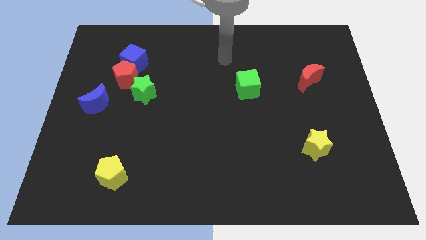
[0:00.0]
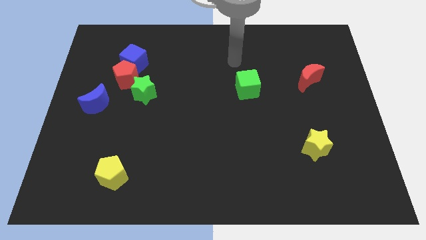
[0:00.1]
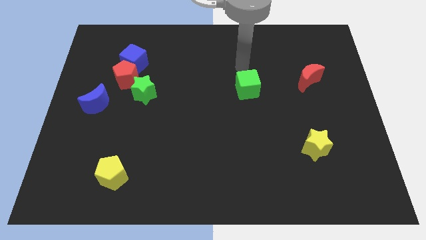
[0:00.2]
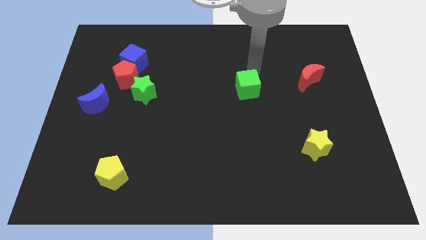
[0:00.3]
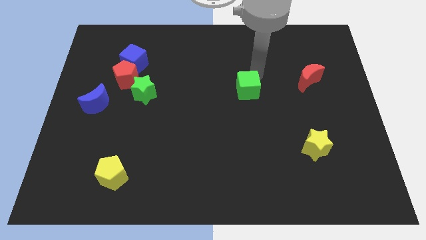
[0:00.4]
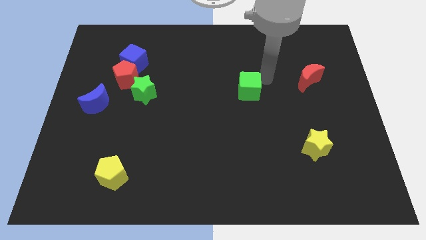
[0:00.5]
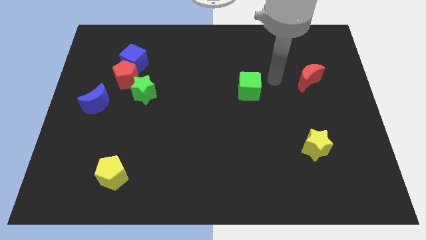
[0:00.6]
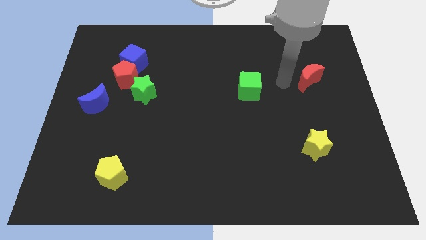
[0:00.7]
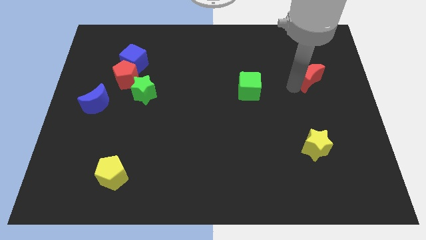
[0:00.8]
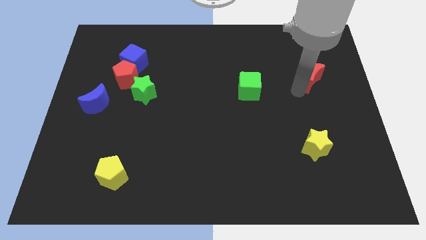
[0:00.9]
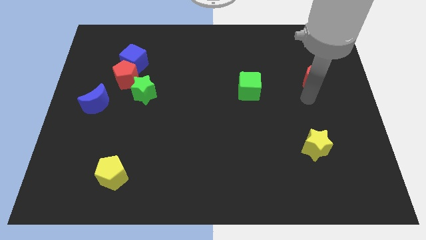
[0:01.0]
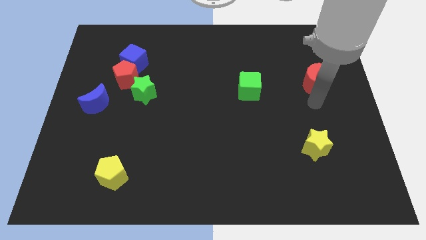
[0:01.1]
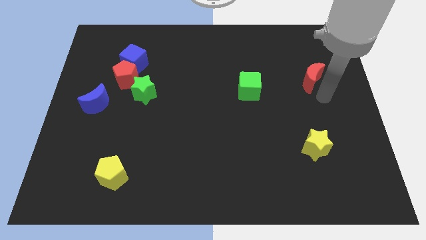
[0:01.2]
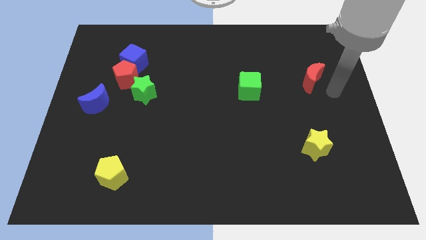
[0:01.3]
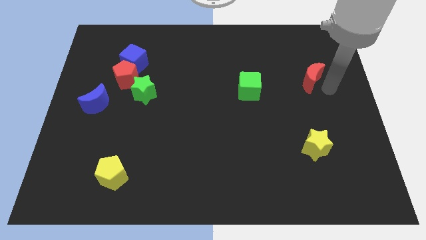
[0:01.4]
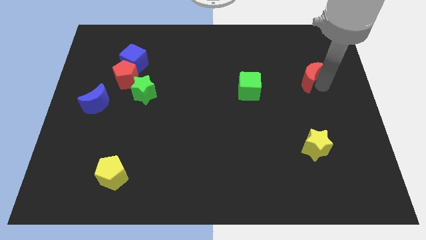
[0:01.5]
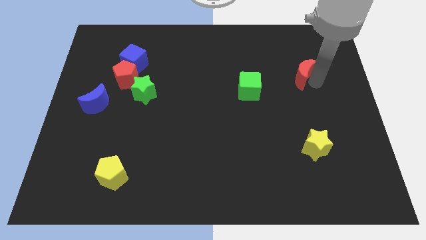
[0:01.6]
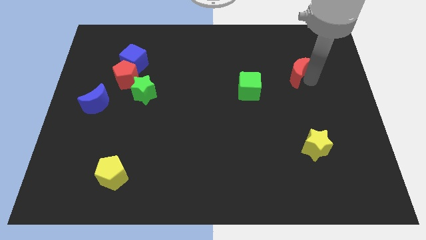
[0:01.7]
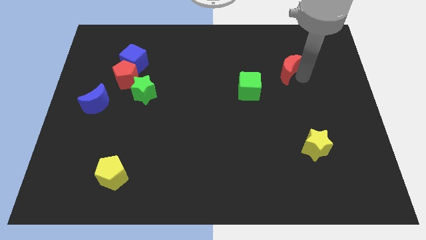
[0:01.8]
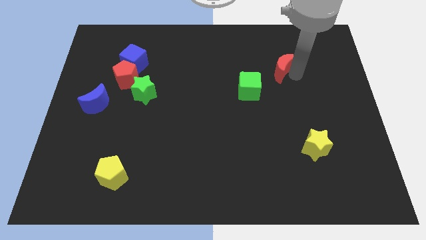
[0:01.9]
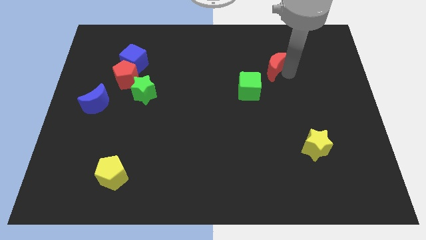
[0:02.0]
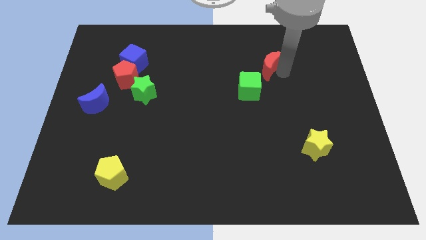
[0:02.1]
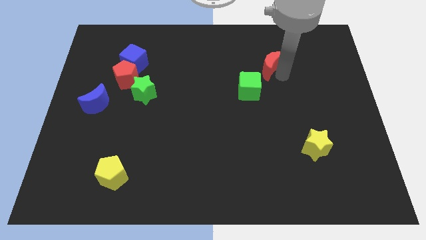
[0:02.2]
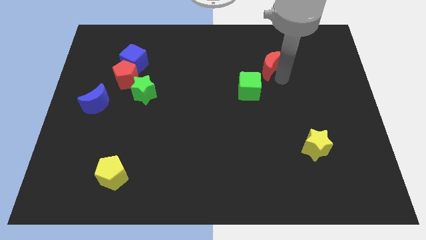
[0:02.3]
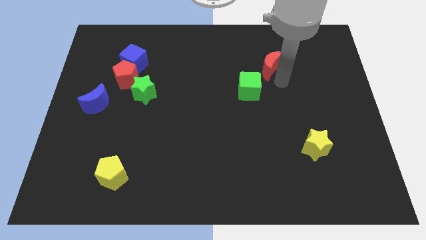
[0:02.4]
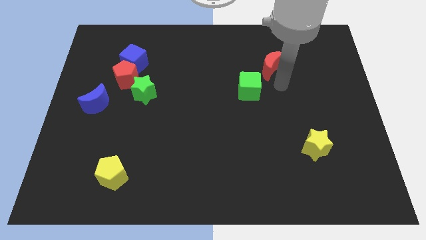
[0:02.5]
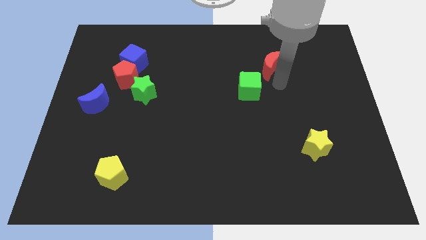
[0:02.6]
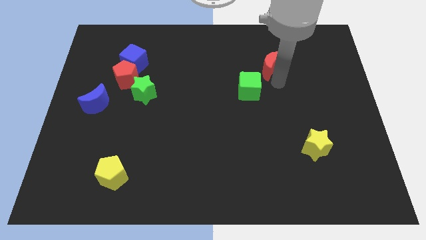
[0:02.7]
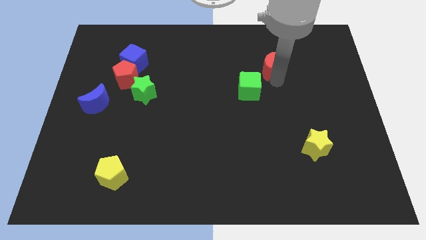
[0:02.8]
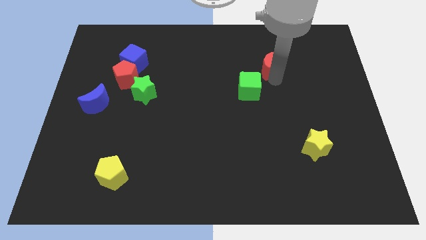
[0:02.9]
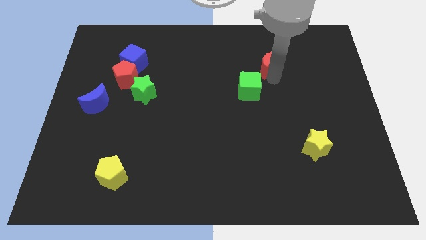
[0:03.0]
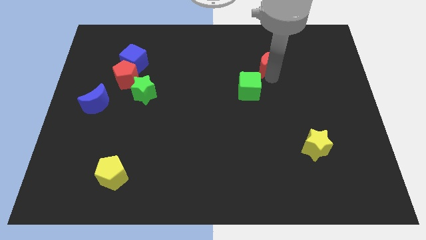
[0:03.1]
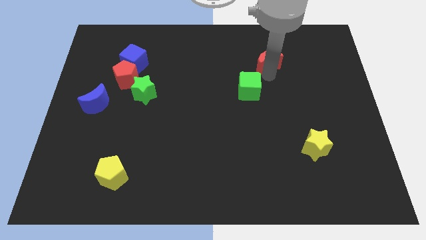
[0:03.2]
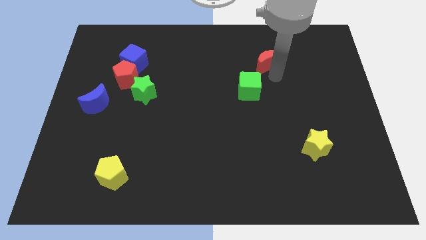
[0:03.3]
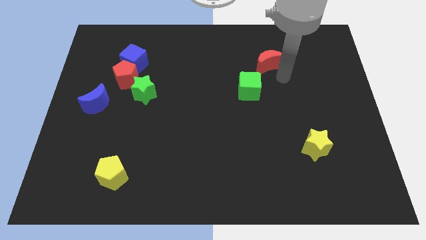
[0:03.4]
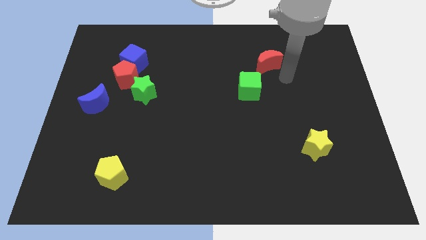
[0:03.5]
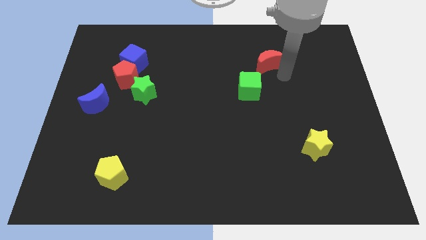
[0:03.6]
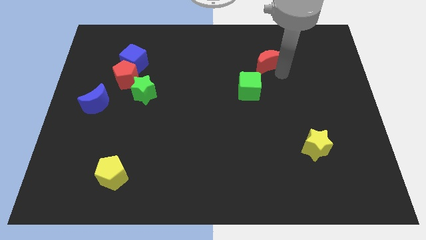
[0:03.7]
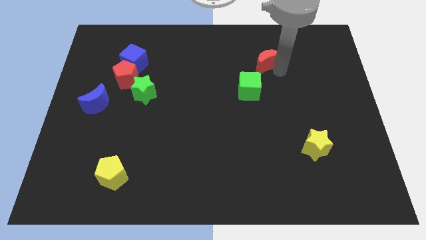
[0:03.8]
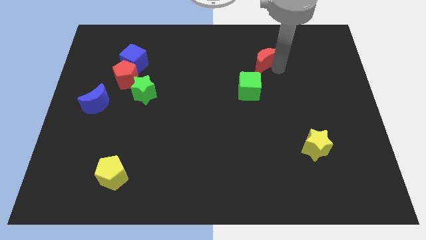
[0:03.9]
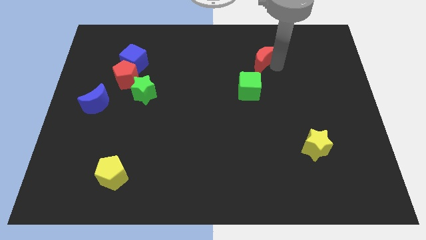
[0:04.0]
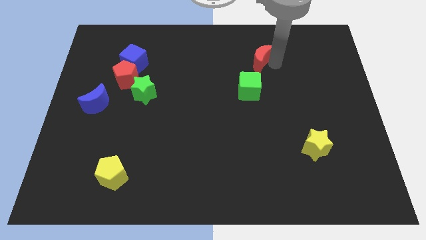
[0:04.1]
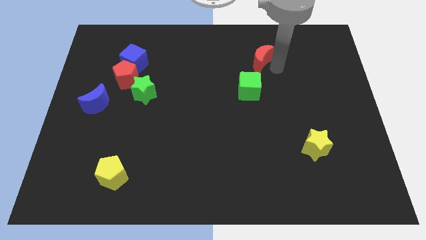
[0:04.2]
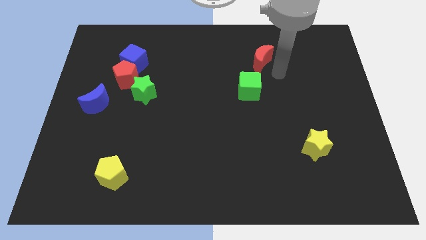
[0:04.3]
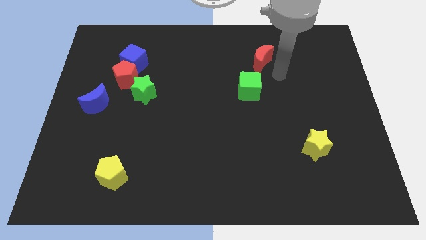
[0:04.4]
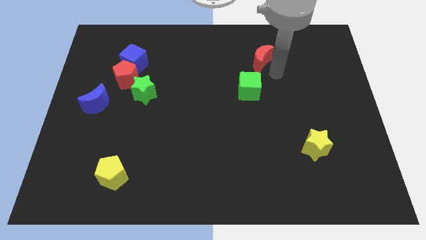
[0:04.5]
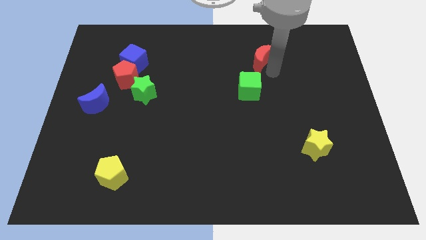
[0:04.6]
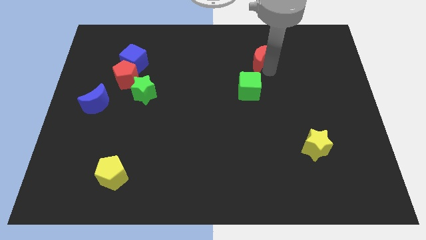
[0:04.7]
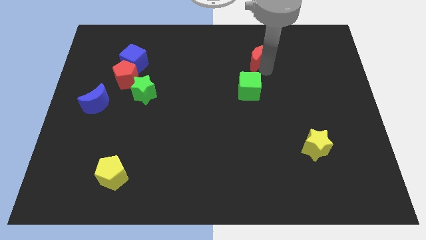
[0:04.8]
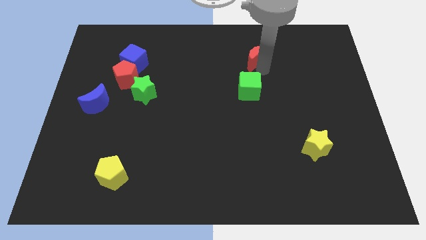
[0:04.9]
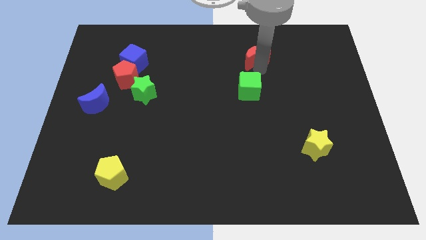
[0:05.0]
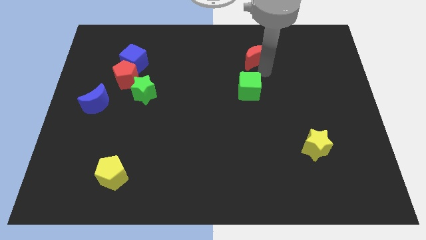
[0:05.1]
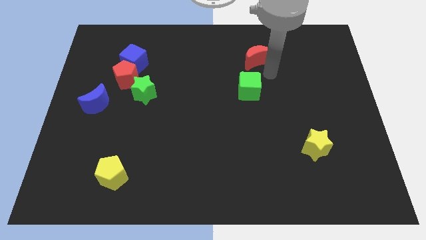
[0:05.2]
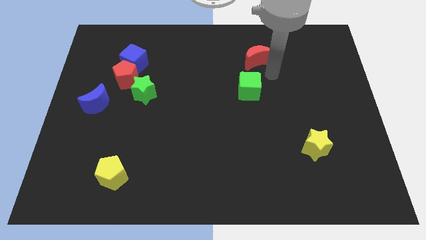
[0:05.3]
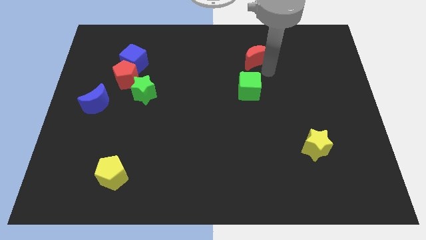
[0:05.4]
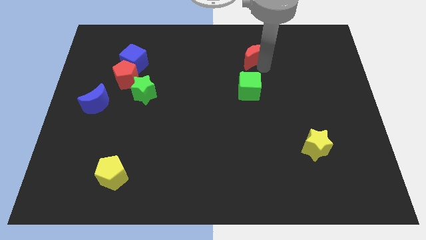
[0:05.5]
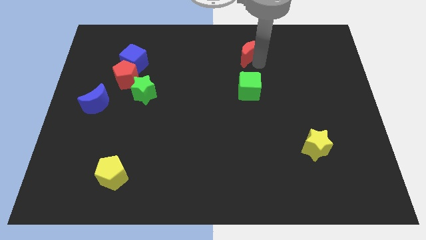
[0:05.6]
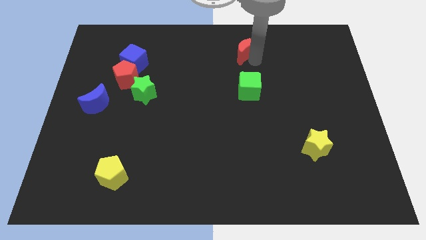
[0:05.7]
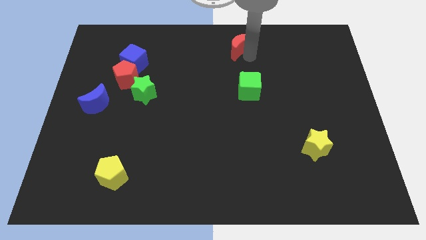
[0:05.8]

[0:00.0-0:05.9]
put the red moon to the top

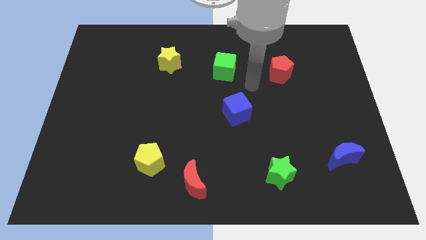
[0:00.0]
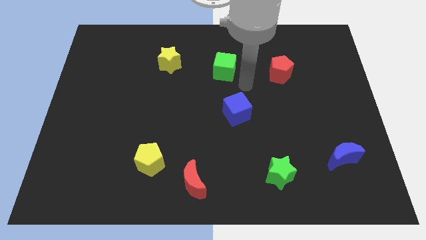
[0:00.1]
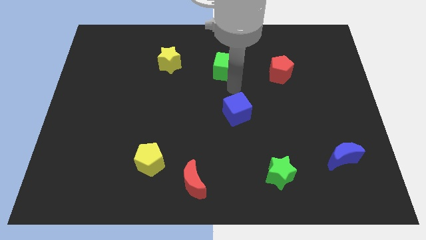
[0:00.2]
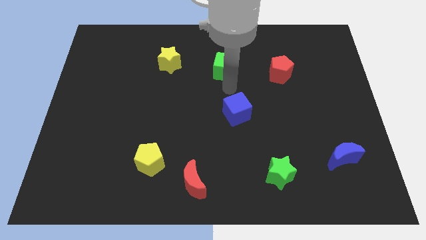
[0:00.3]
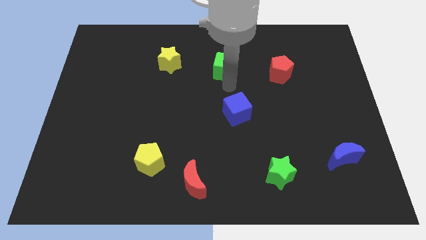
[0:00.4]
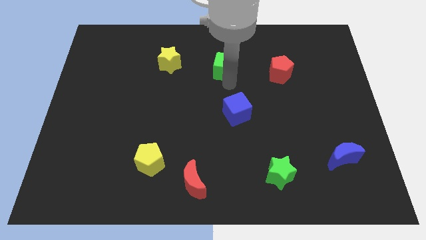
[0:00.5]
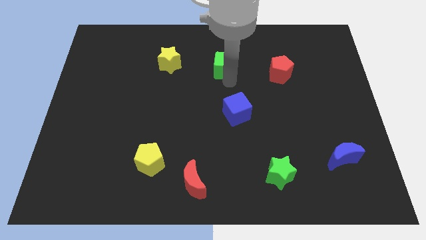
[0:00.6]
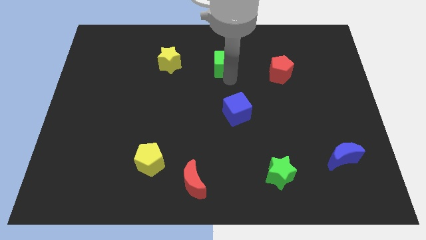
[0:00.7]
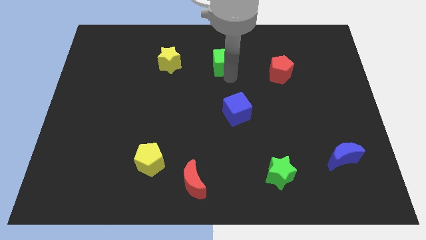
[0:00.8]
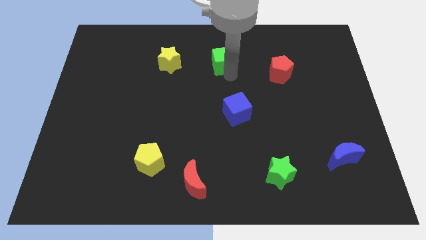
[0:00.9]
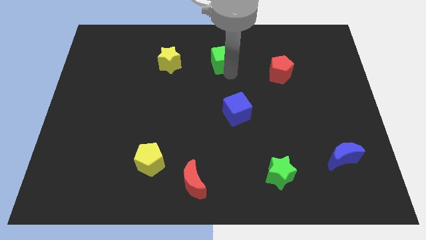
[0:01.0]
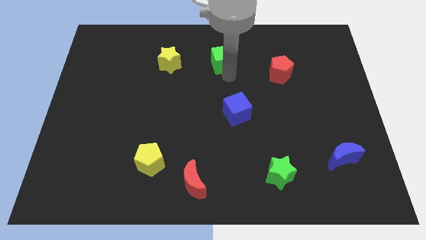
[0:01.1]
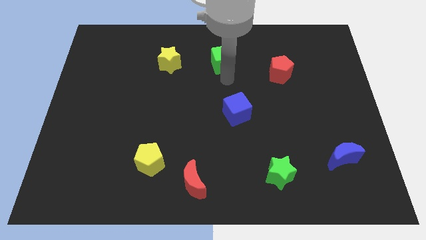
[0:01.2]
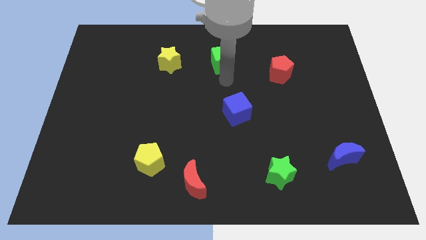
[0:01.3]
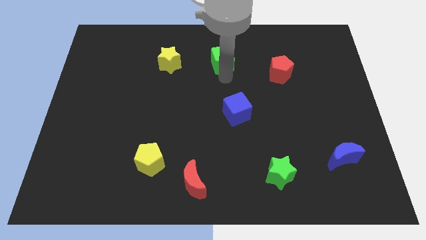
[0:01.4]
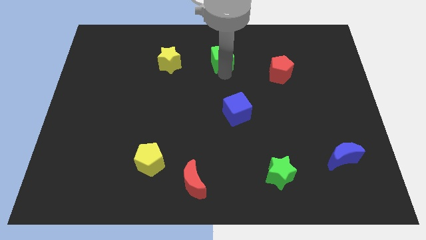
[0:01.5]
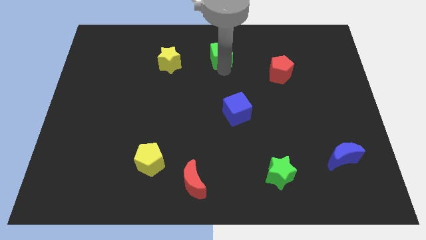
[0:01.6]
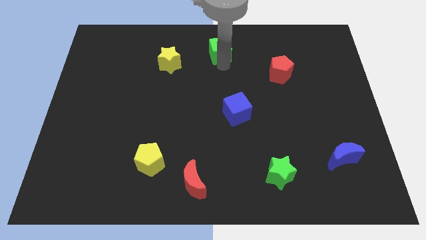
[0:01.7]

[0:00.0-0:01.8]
slide the green cube to the top
